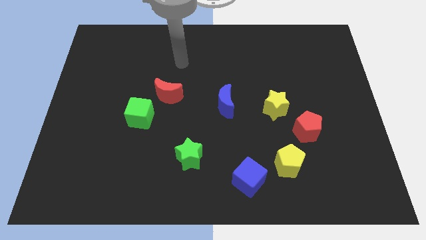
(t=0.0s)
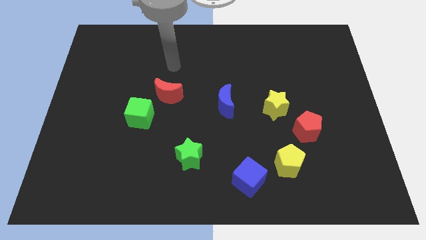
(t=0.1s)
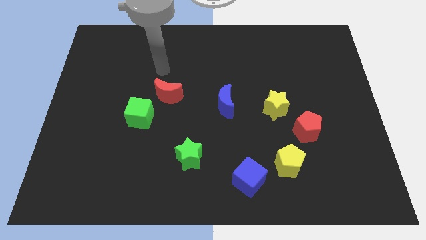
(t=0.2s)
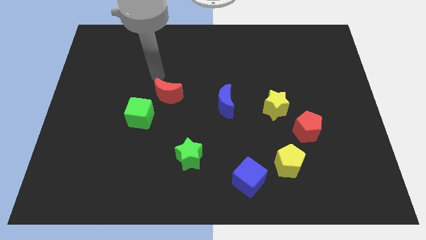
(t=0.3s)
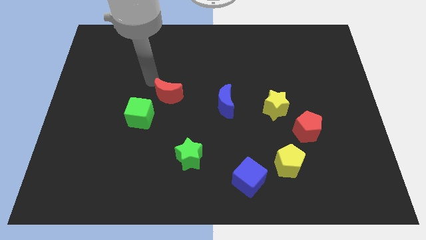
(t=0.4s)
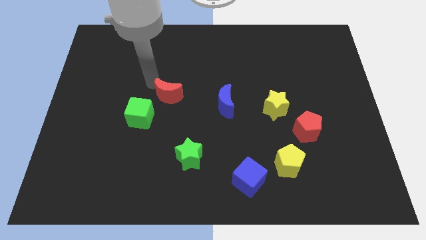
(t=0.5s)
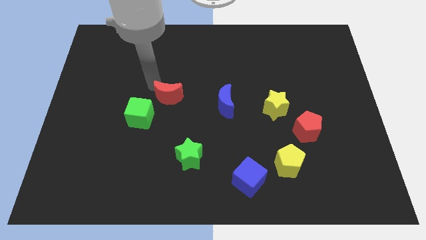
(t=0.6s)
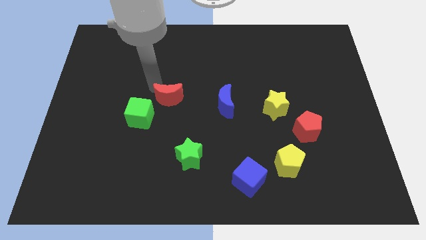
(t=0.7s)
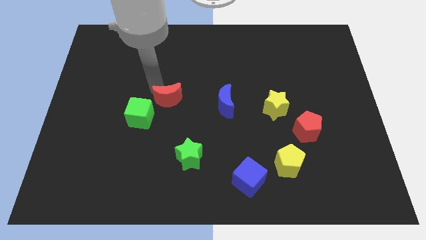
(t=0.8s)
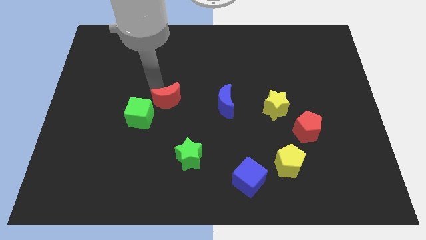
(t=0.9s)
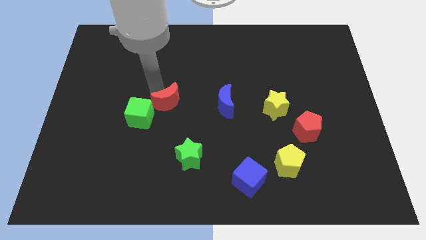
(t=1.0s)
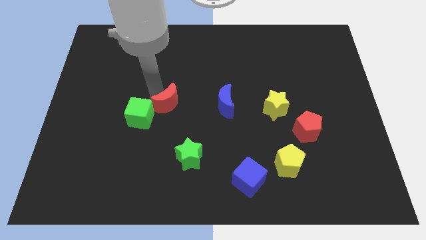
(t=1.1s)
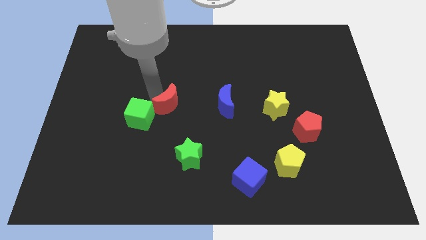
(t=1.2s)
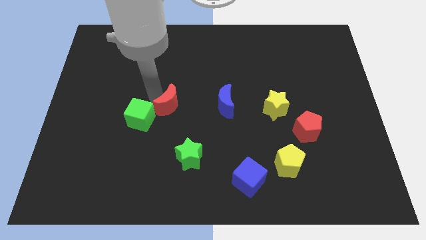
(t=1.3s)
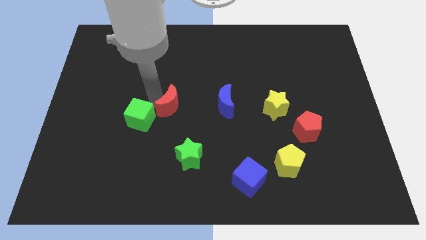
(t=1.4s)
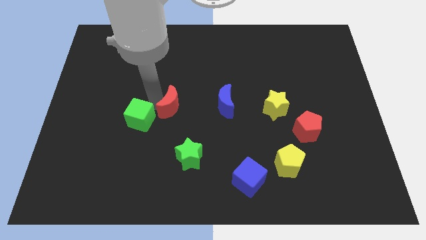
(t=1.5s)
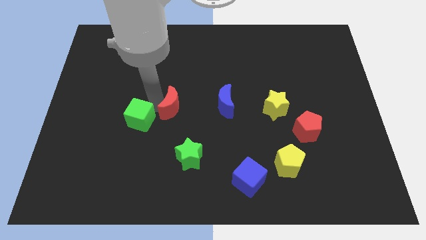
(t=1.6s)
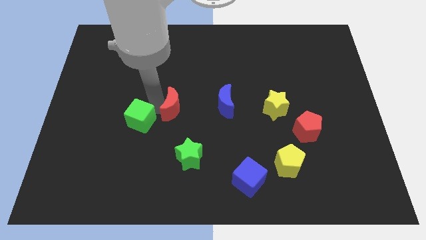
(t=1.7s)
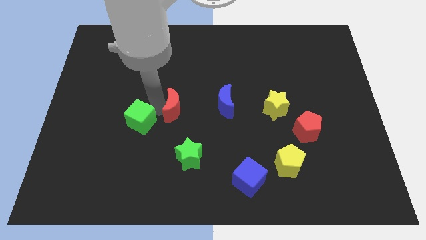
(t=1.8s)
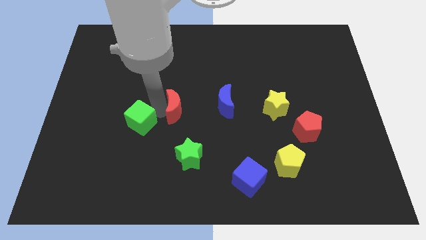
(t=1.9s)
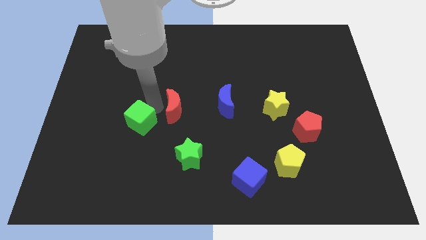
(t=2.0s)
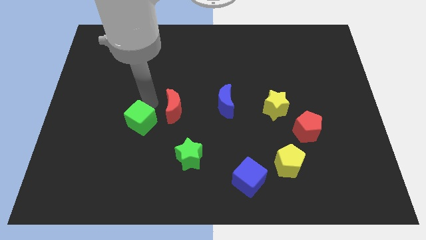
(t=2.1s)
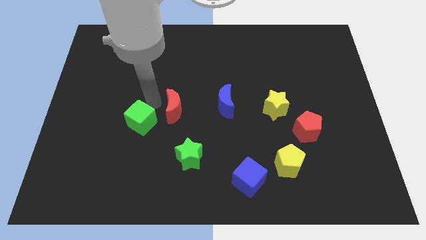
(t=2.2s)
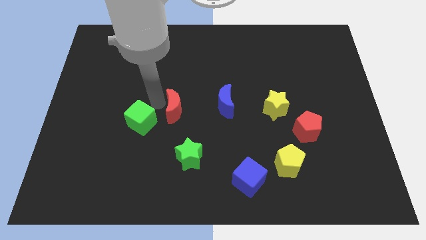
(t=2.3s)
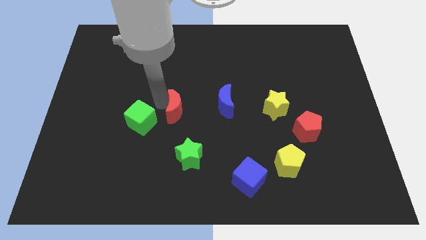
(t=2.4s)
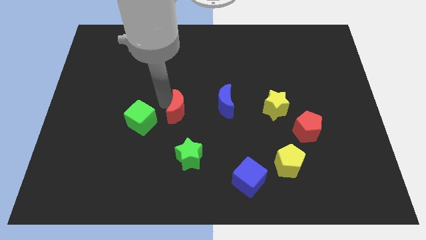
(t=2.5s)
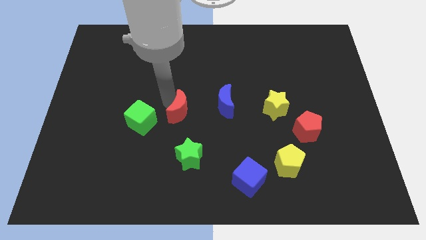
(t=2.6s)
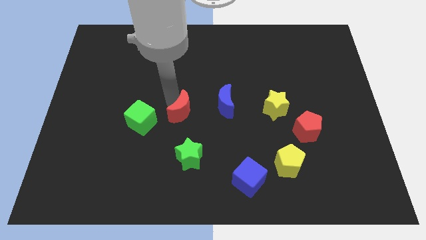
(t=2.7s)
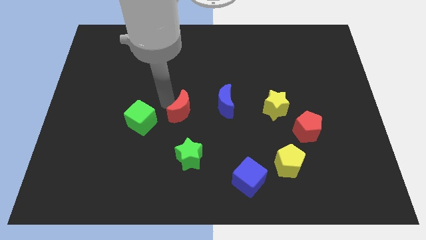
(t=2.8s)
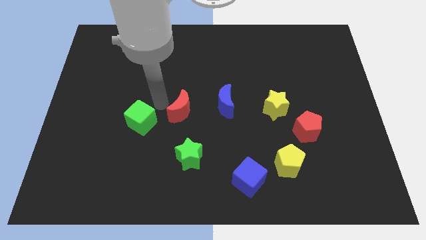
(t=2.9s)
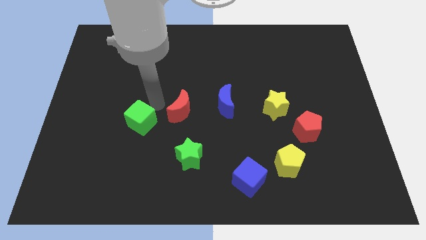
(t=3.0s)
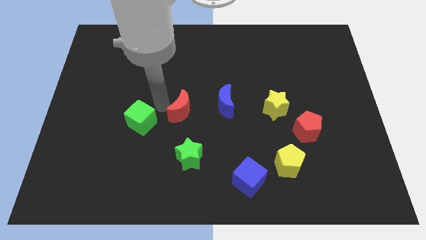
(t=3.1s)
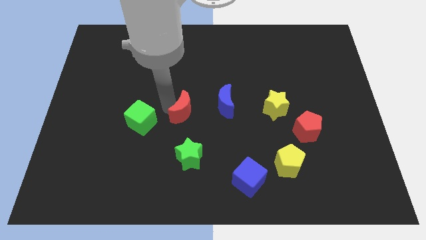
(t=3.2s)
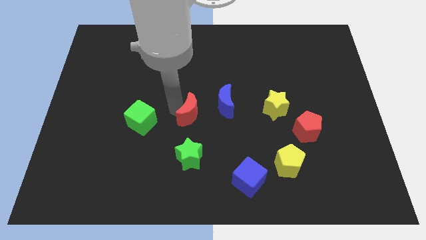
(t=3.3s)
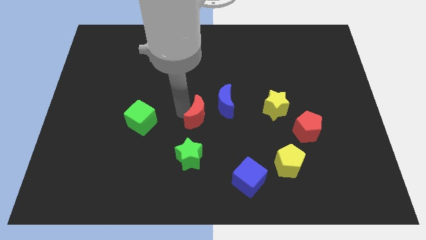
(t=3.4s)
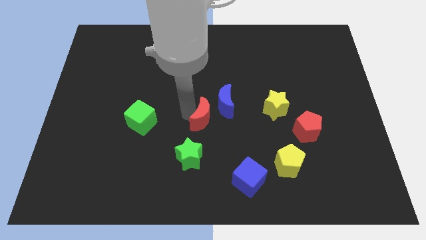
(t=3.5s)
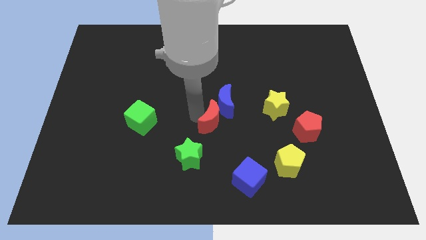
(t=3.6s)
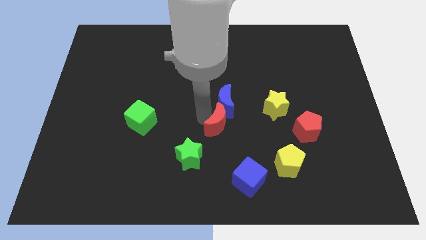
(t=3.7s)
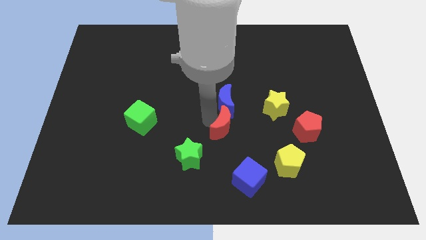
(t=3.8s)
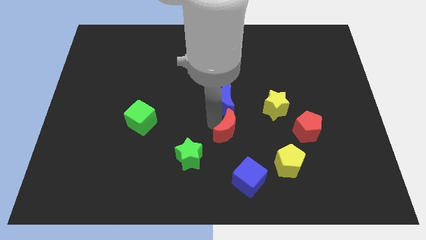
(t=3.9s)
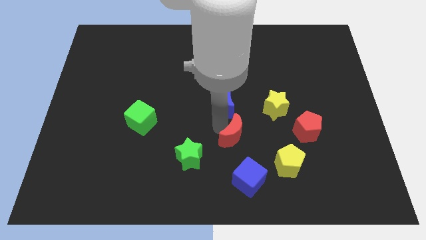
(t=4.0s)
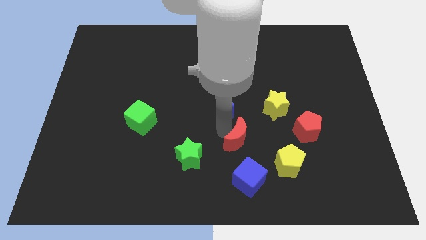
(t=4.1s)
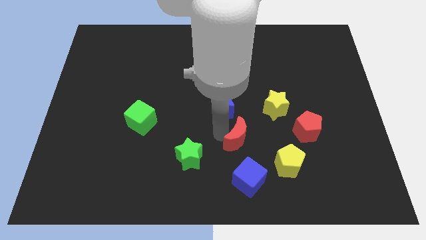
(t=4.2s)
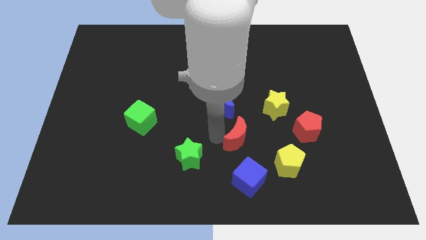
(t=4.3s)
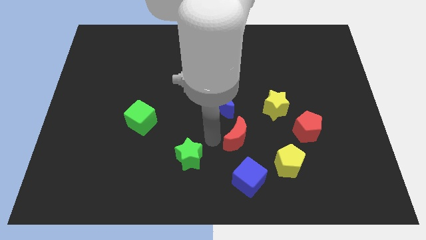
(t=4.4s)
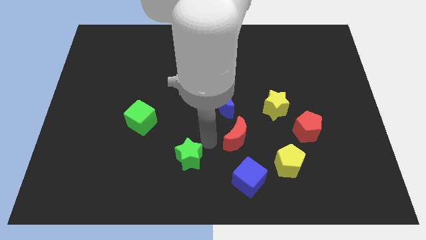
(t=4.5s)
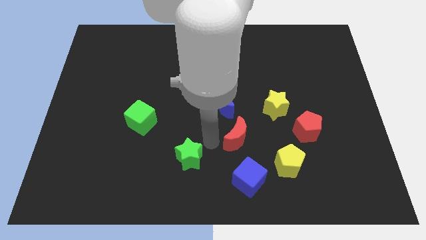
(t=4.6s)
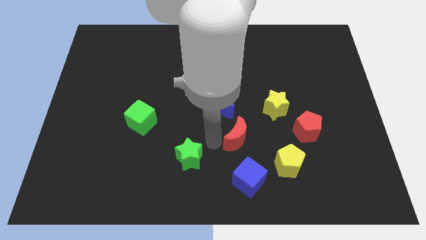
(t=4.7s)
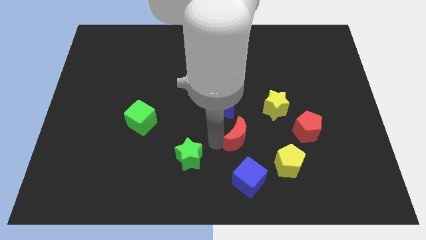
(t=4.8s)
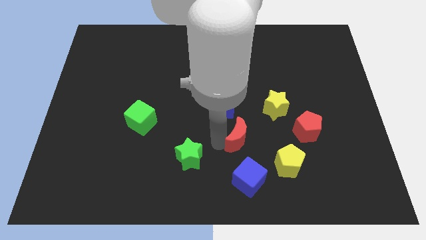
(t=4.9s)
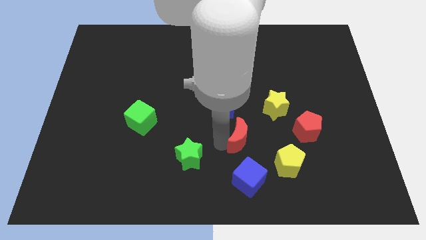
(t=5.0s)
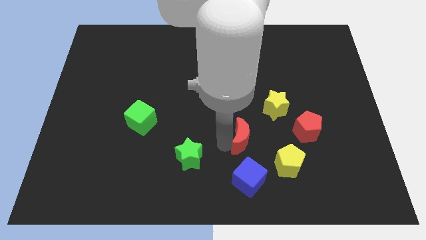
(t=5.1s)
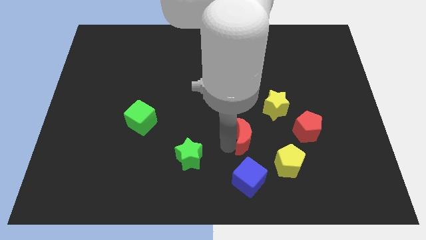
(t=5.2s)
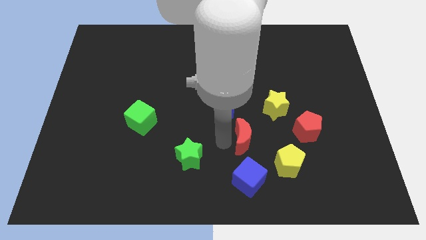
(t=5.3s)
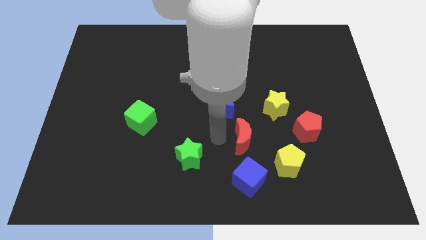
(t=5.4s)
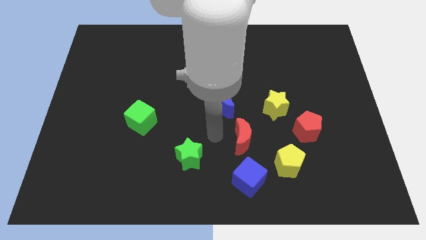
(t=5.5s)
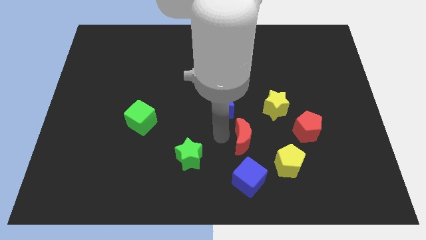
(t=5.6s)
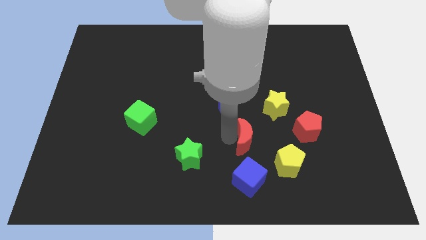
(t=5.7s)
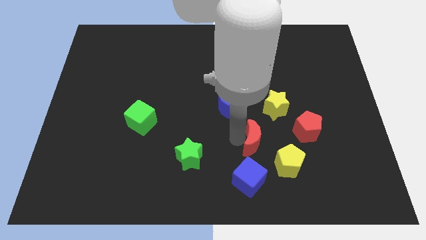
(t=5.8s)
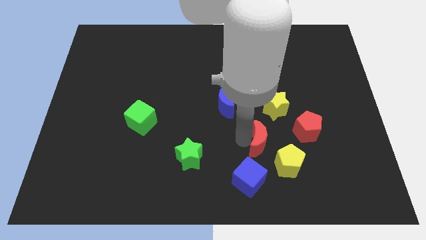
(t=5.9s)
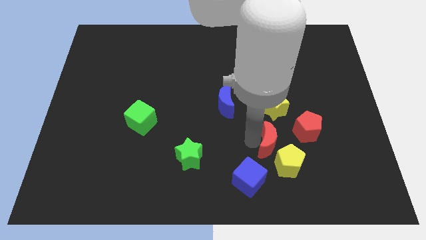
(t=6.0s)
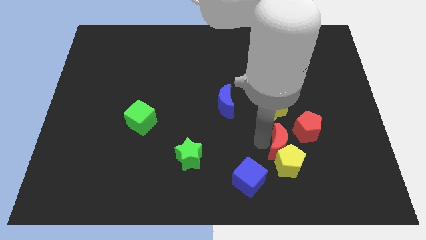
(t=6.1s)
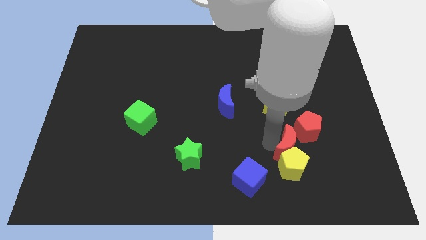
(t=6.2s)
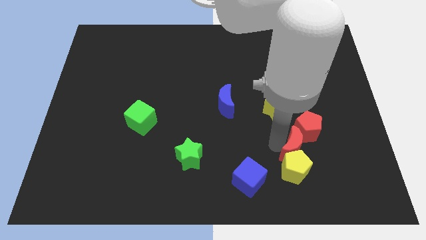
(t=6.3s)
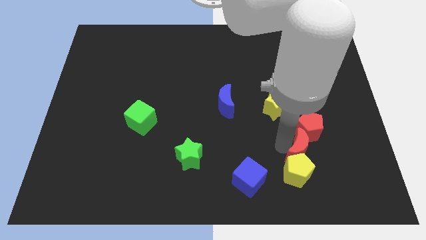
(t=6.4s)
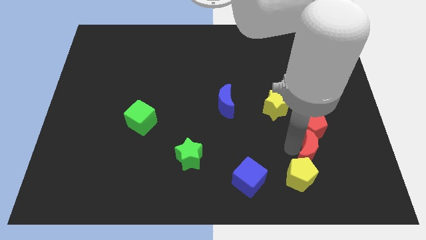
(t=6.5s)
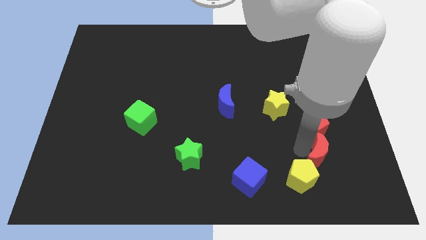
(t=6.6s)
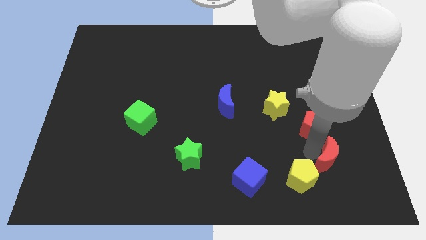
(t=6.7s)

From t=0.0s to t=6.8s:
move the red moon just right of the yellow pentagon
